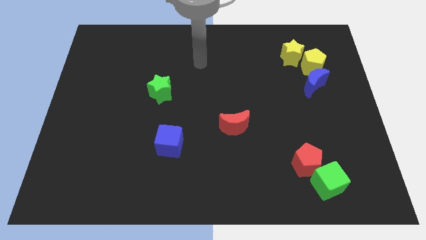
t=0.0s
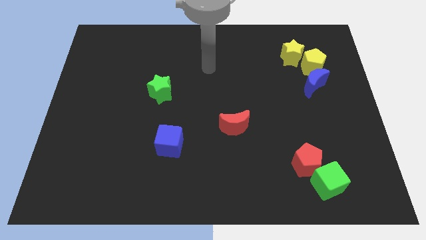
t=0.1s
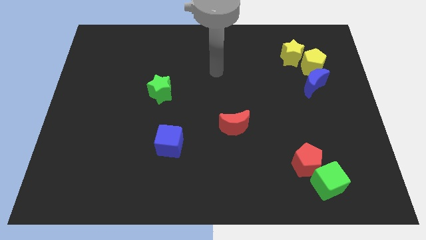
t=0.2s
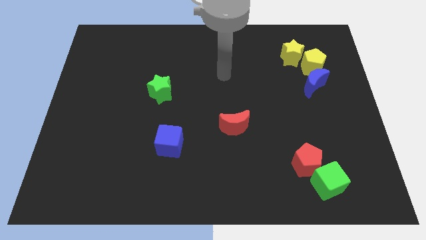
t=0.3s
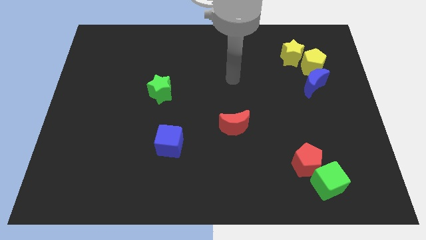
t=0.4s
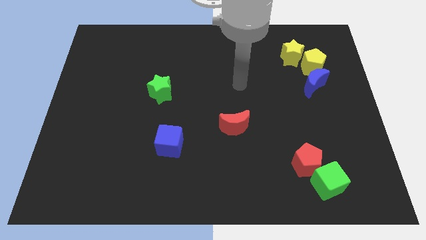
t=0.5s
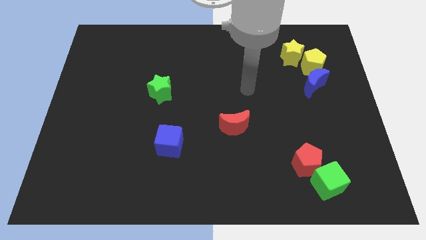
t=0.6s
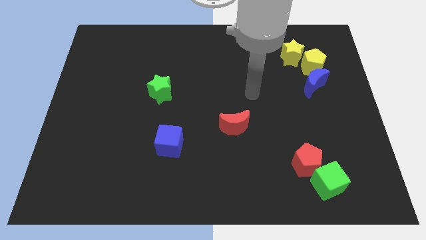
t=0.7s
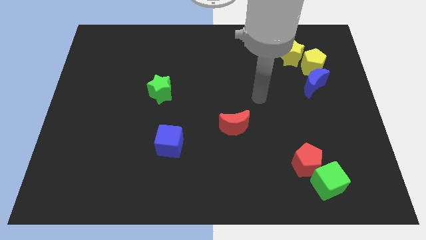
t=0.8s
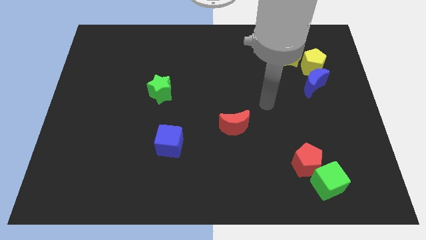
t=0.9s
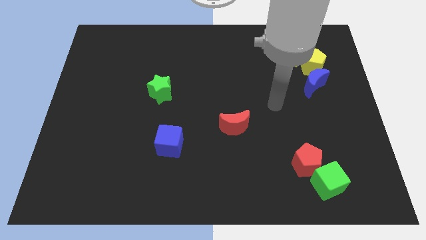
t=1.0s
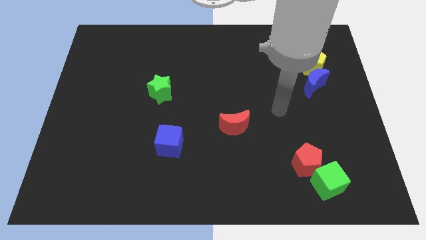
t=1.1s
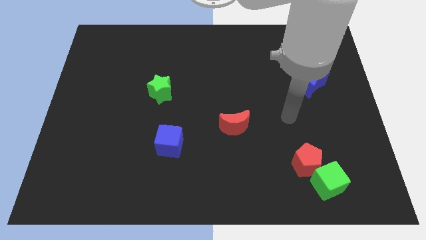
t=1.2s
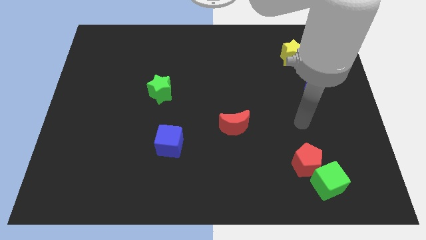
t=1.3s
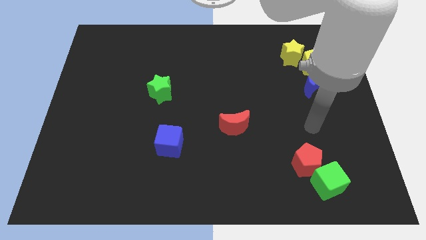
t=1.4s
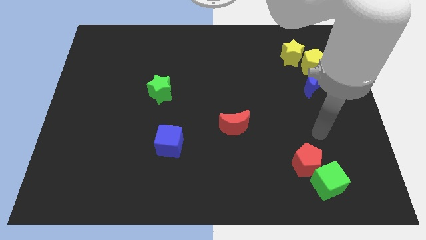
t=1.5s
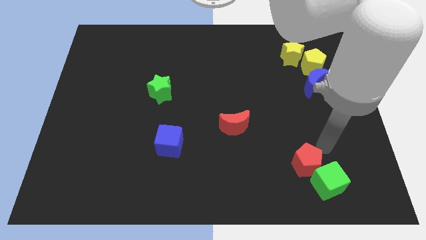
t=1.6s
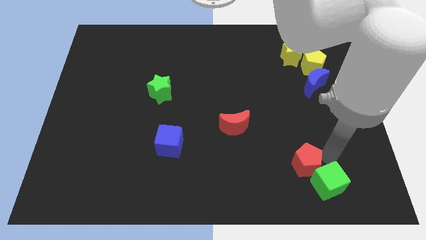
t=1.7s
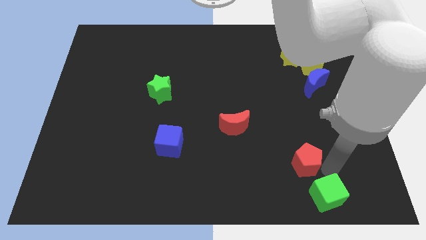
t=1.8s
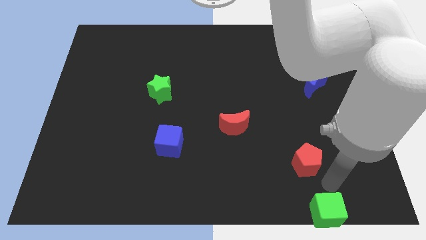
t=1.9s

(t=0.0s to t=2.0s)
pull the red pentagon apart from the green cube

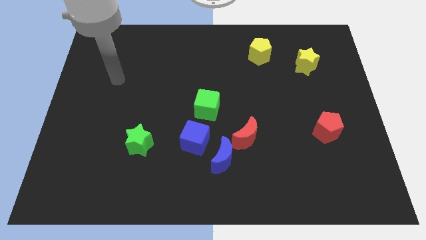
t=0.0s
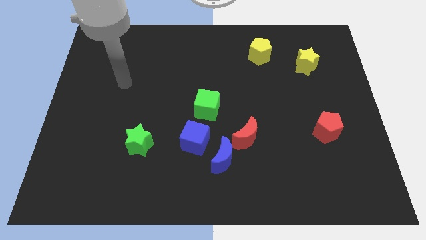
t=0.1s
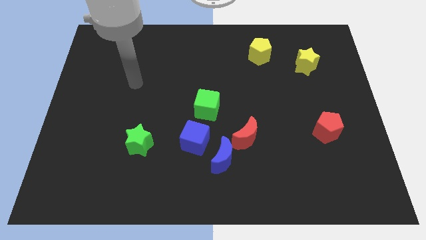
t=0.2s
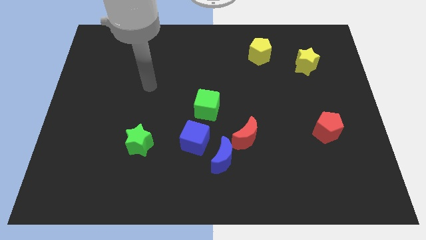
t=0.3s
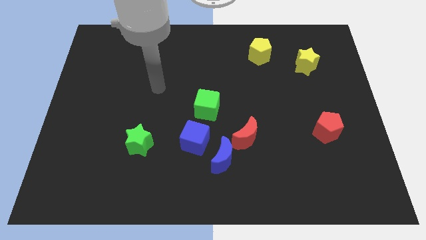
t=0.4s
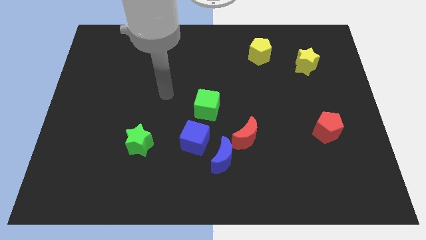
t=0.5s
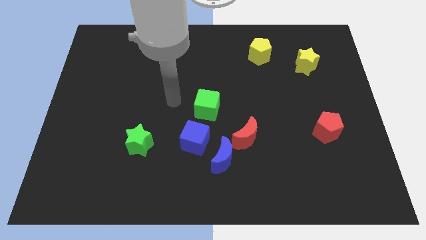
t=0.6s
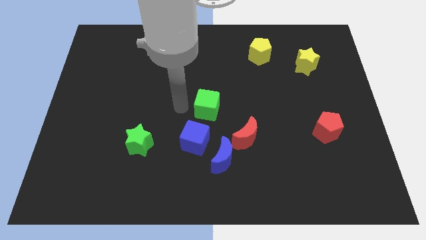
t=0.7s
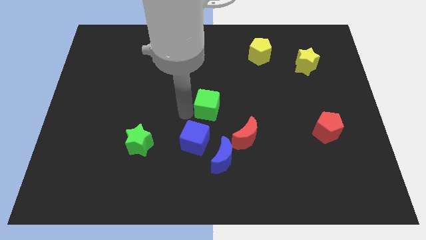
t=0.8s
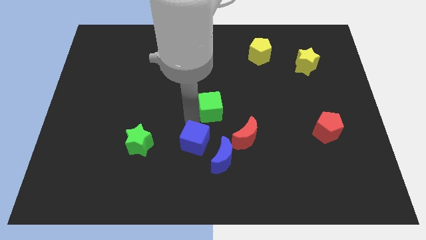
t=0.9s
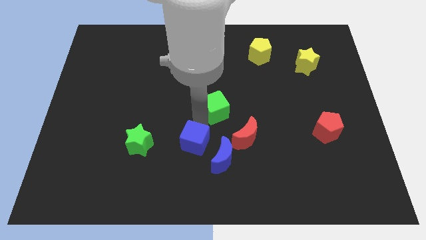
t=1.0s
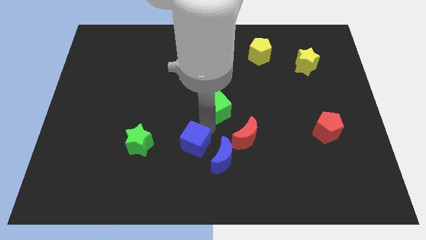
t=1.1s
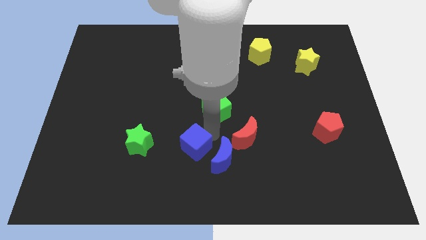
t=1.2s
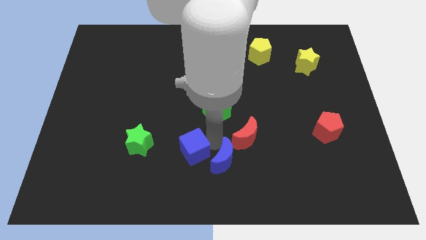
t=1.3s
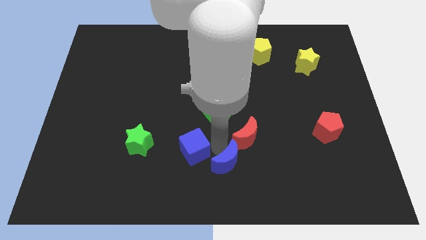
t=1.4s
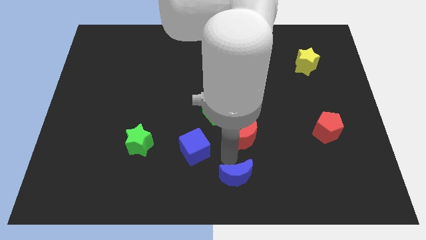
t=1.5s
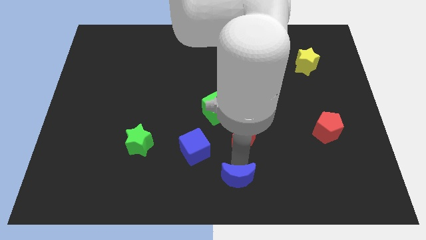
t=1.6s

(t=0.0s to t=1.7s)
separate the red moon from the blue moon

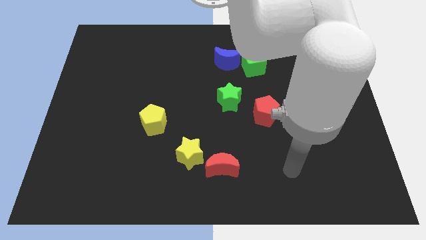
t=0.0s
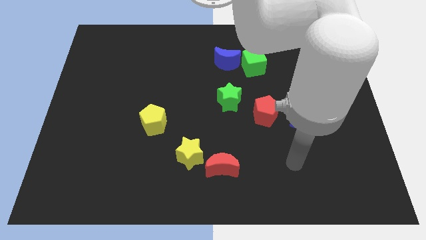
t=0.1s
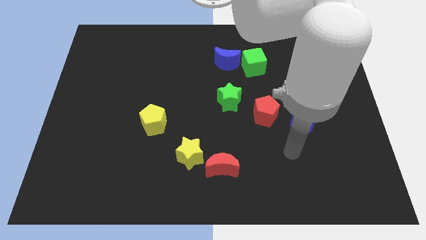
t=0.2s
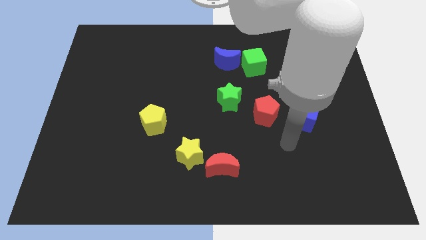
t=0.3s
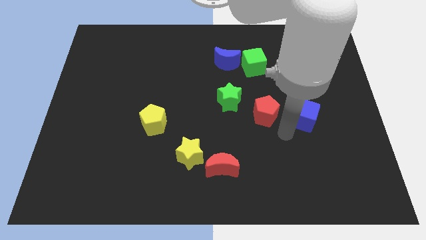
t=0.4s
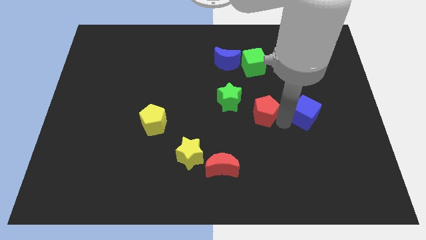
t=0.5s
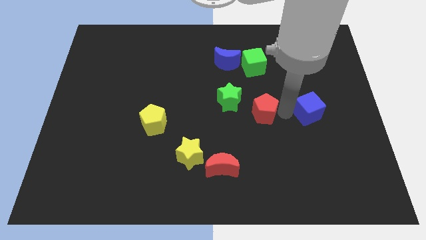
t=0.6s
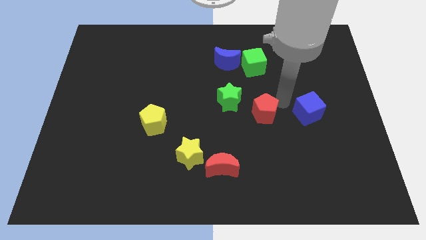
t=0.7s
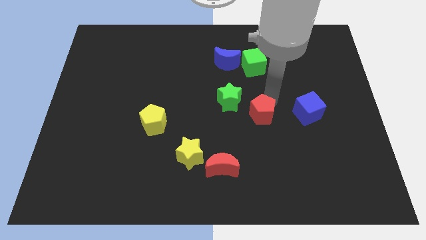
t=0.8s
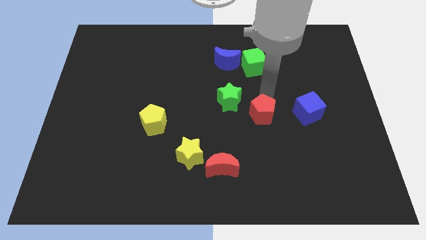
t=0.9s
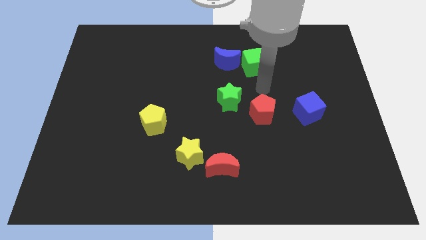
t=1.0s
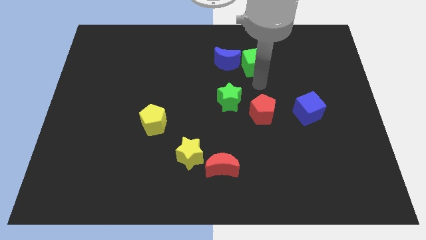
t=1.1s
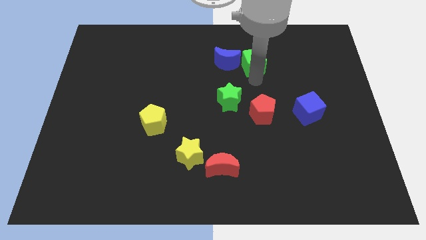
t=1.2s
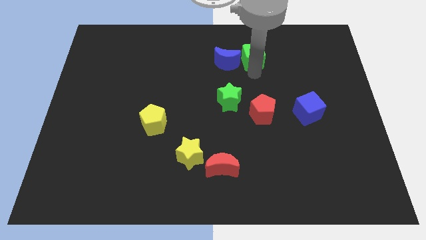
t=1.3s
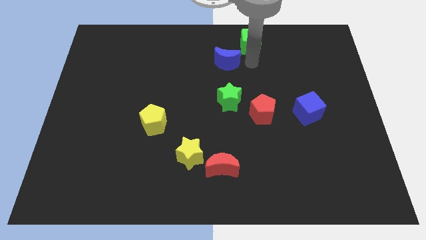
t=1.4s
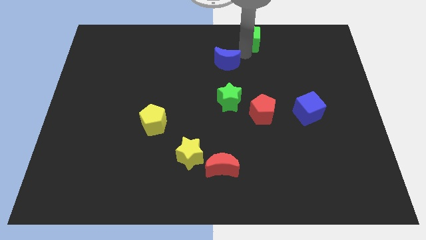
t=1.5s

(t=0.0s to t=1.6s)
move the blue moon away from the green cube

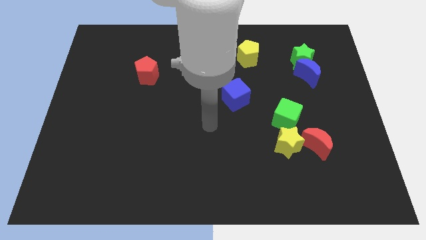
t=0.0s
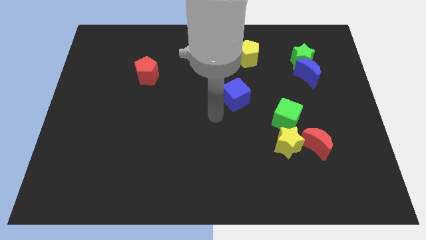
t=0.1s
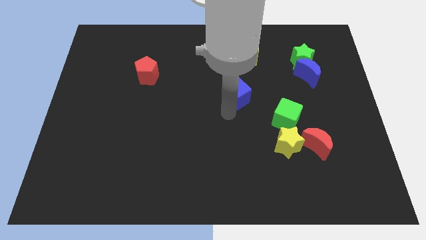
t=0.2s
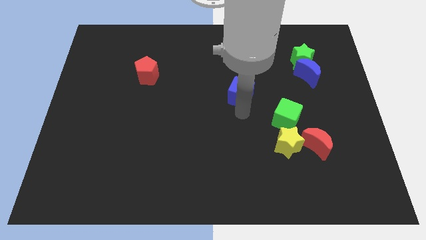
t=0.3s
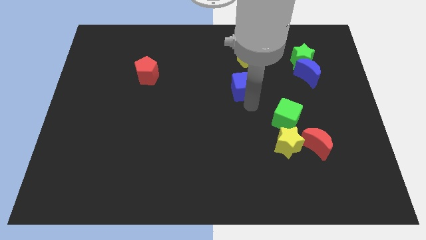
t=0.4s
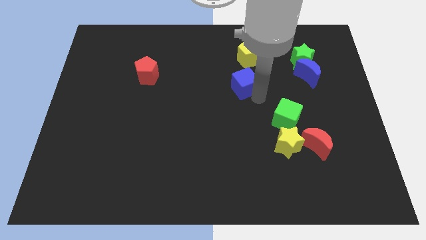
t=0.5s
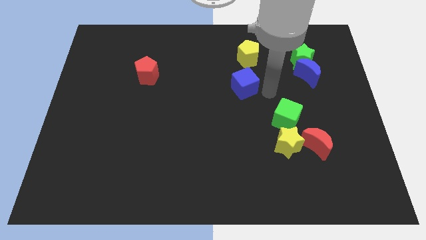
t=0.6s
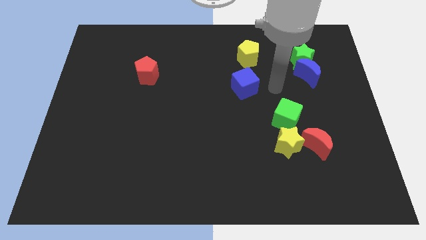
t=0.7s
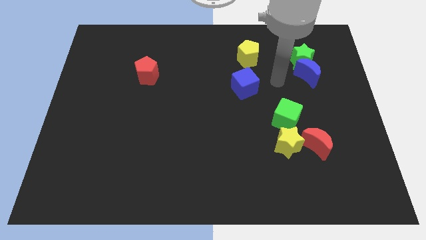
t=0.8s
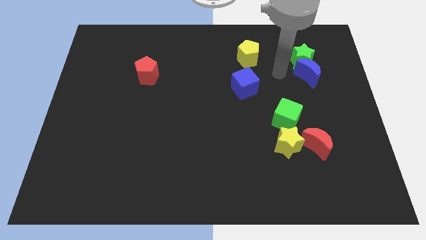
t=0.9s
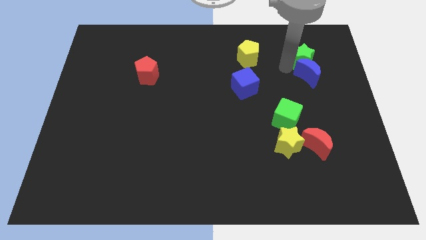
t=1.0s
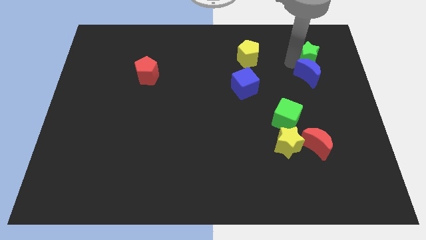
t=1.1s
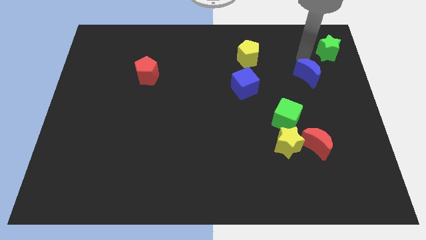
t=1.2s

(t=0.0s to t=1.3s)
move the blue moon away from the green star

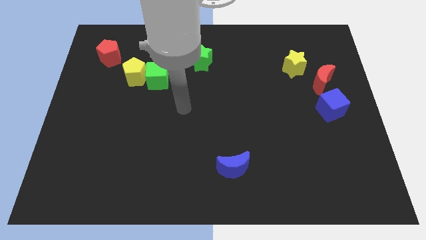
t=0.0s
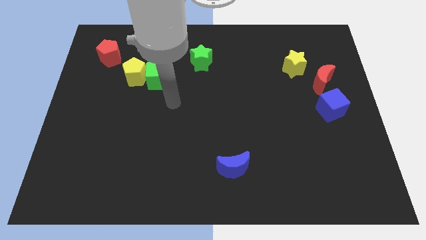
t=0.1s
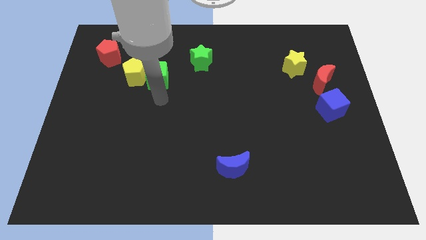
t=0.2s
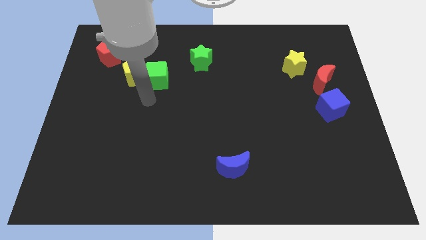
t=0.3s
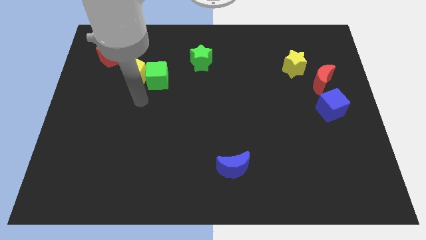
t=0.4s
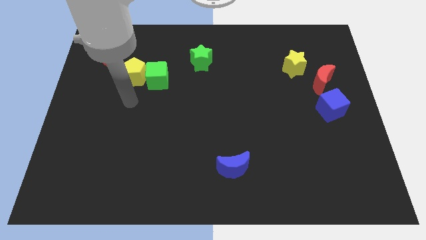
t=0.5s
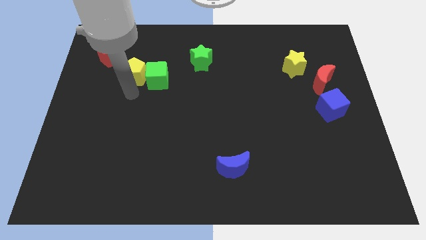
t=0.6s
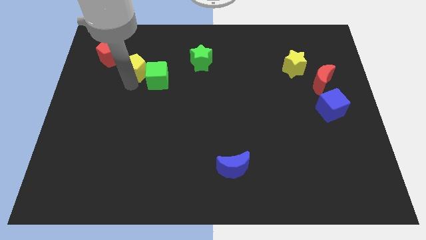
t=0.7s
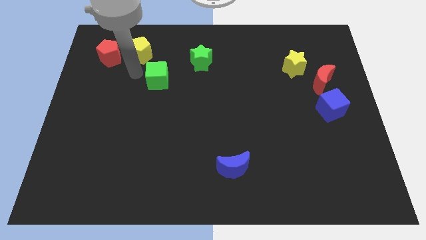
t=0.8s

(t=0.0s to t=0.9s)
pull the green cube apart from the yellow pentagon

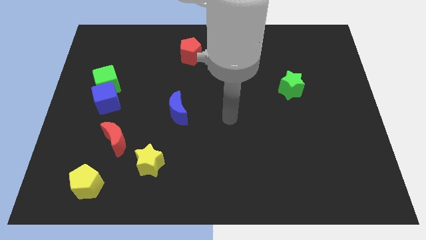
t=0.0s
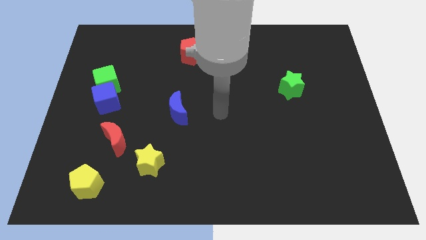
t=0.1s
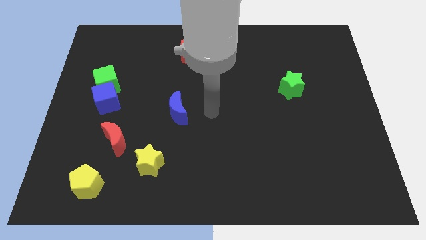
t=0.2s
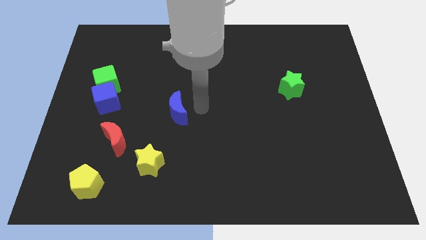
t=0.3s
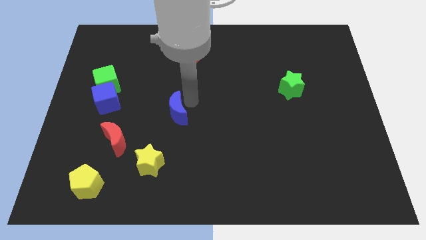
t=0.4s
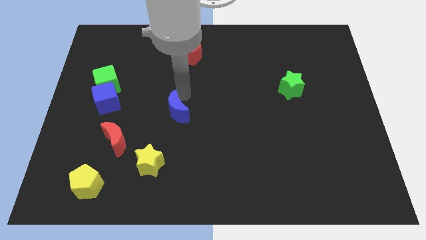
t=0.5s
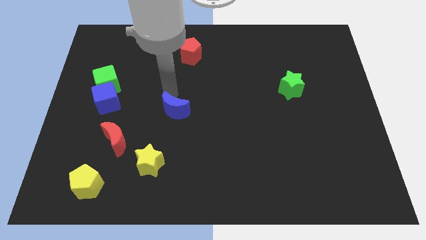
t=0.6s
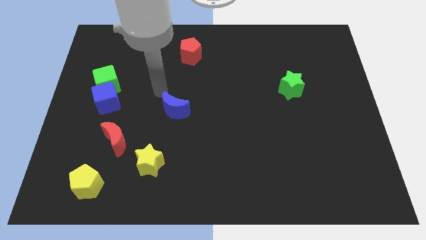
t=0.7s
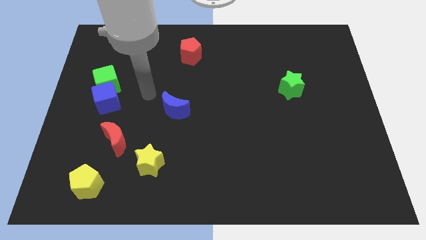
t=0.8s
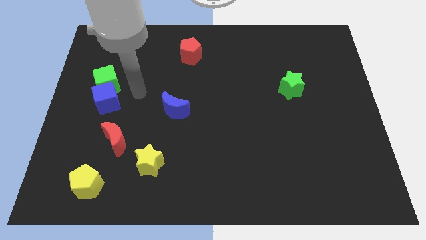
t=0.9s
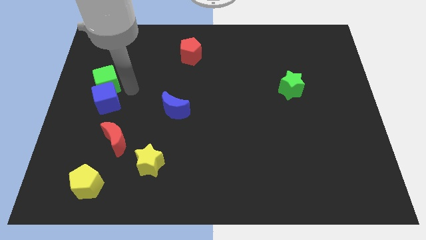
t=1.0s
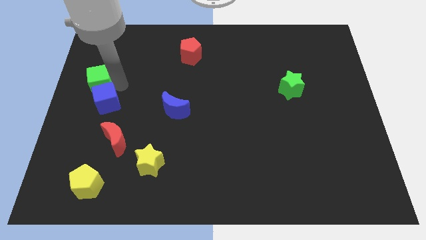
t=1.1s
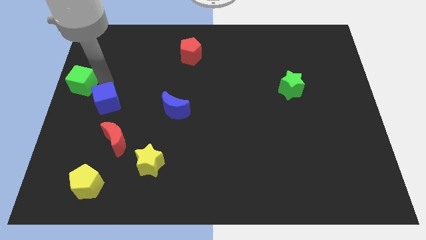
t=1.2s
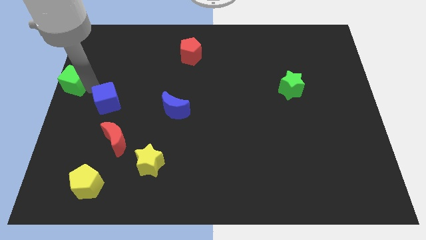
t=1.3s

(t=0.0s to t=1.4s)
pull the blue cube apart from the green cube

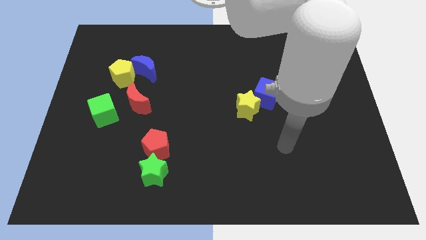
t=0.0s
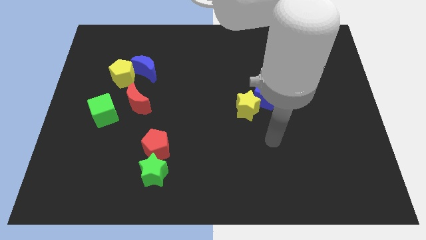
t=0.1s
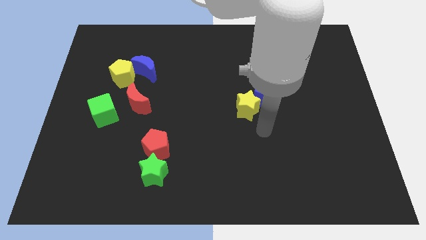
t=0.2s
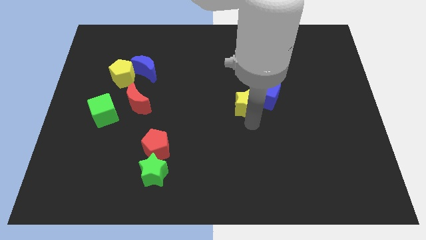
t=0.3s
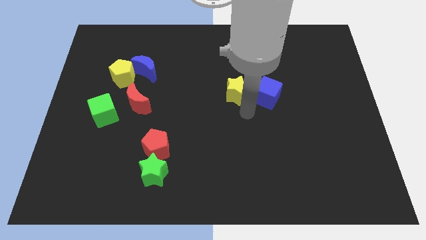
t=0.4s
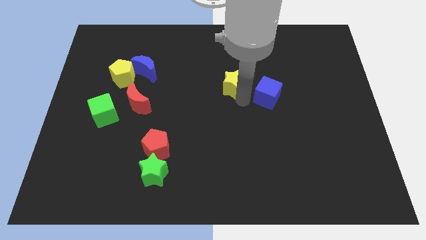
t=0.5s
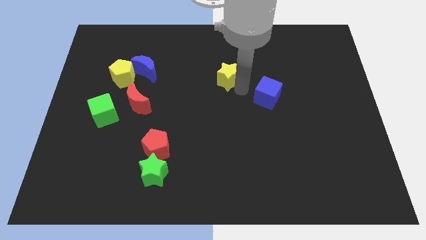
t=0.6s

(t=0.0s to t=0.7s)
pull the blue cube apart from the yellow star
